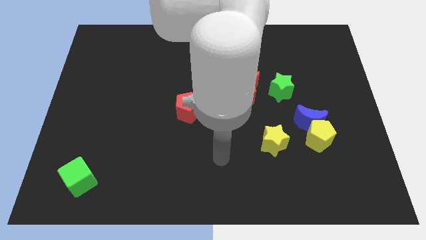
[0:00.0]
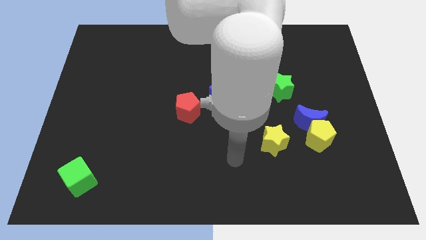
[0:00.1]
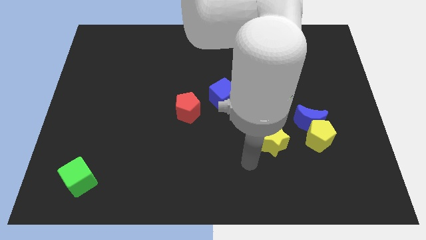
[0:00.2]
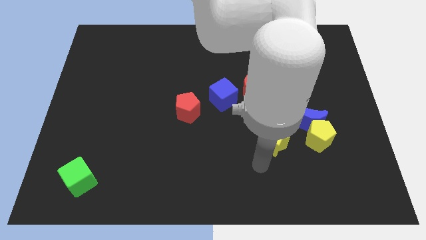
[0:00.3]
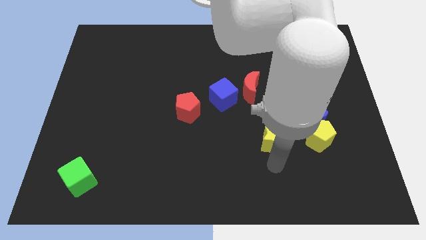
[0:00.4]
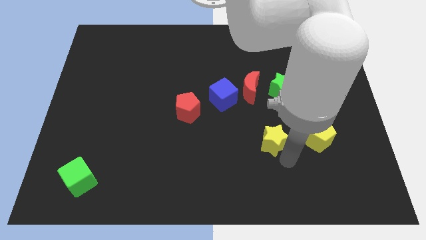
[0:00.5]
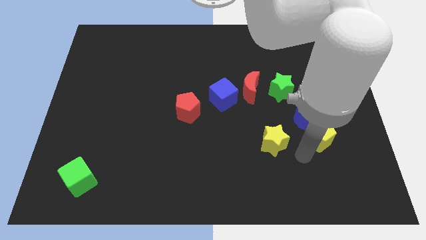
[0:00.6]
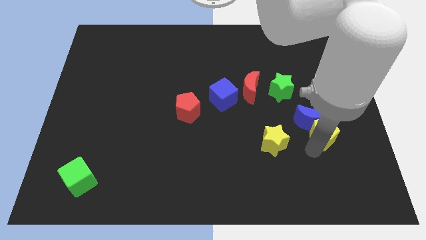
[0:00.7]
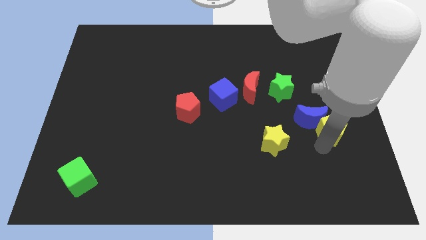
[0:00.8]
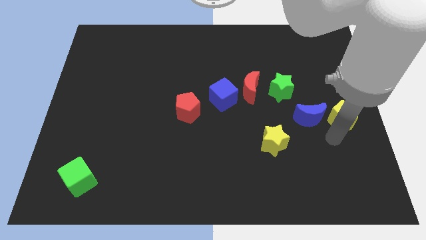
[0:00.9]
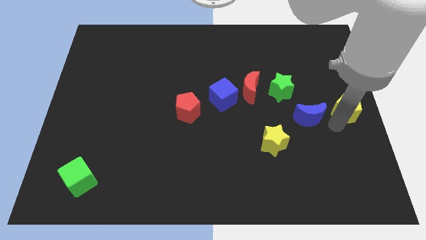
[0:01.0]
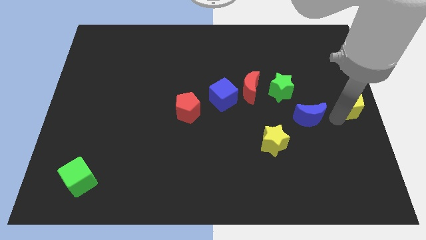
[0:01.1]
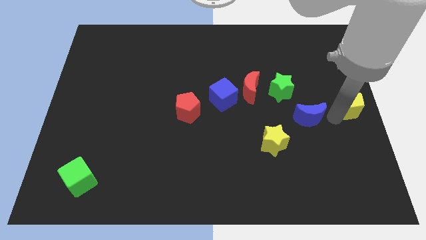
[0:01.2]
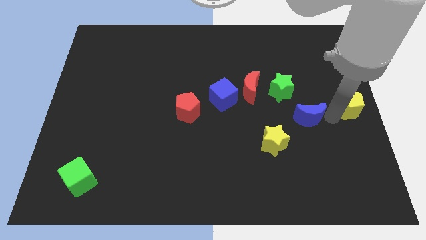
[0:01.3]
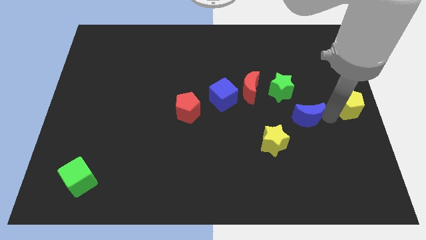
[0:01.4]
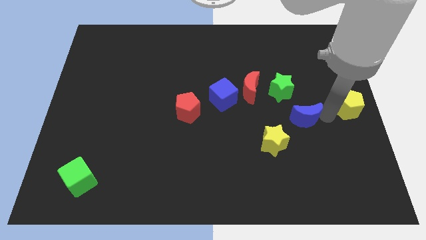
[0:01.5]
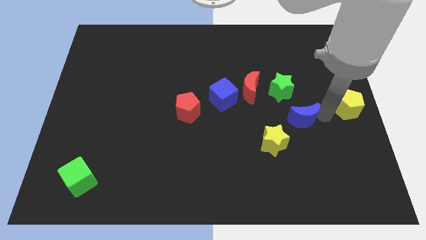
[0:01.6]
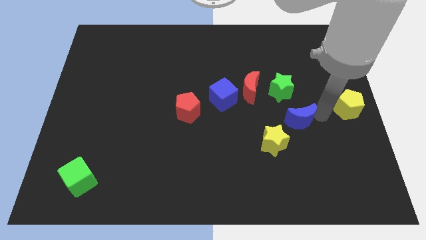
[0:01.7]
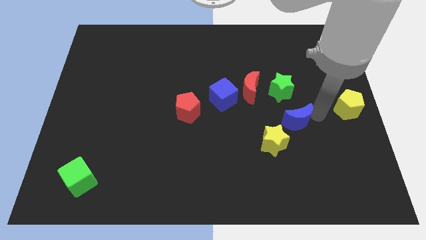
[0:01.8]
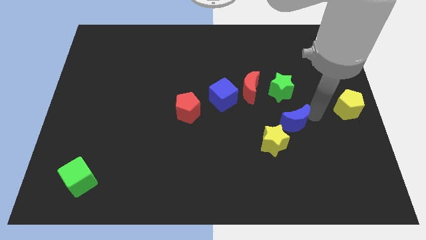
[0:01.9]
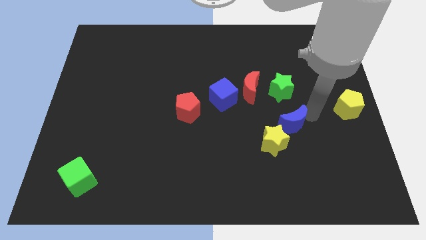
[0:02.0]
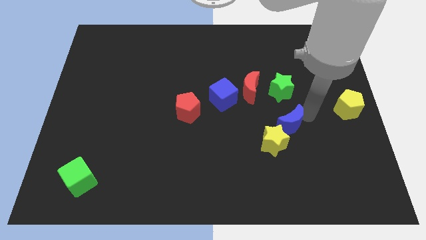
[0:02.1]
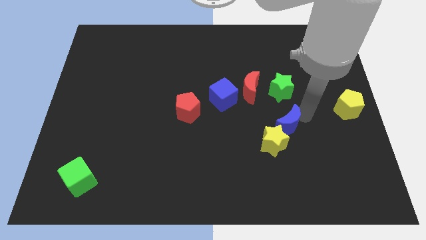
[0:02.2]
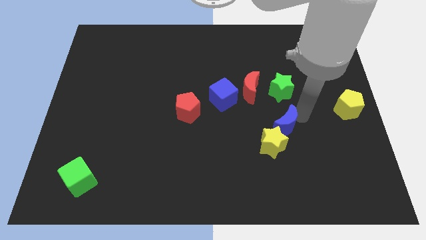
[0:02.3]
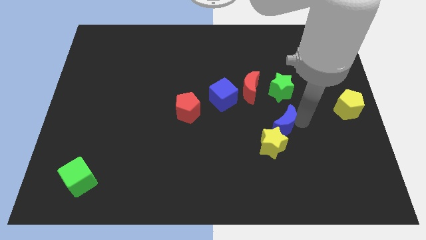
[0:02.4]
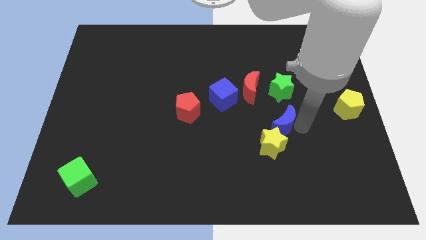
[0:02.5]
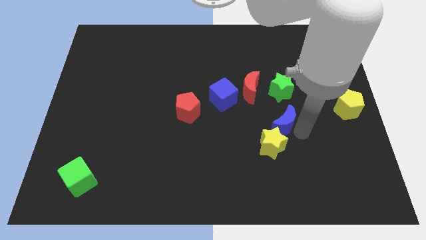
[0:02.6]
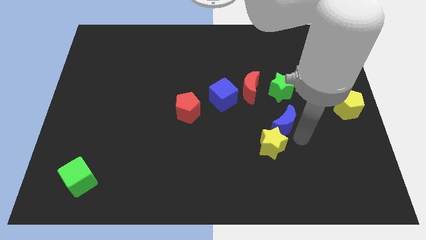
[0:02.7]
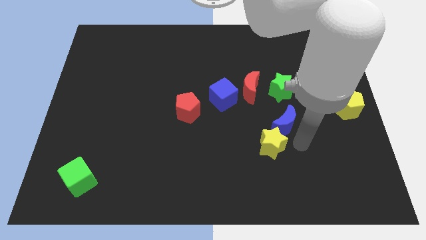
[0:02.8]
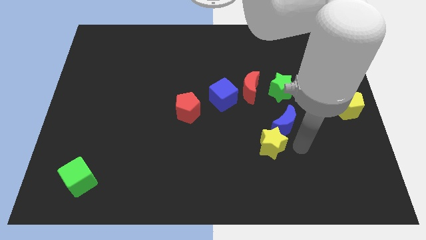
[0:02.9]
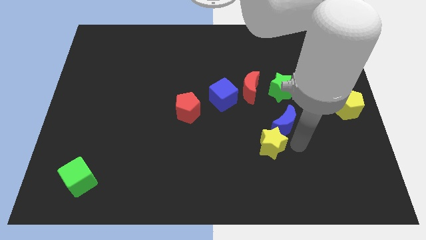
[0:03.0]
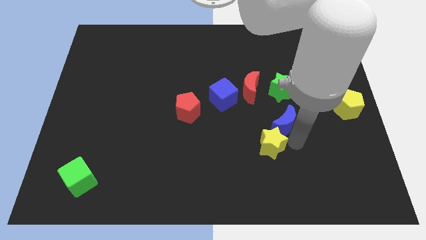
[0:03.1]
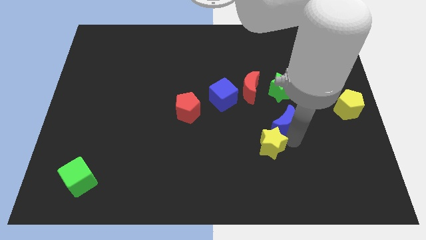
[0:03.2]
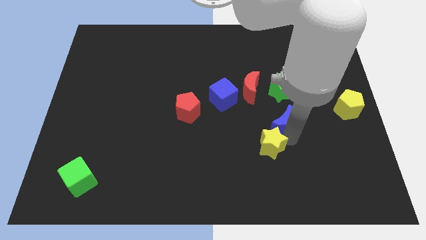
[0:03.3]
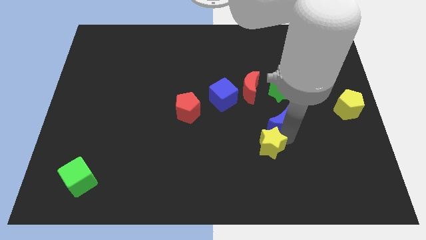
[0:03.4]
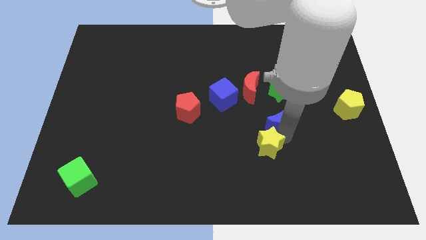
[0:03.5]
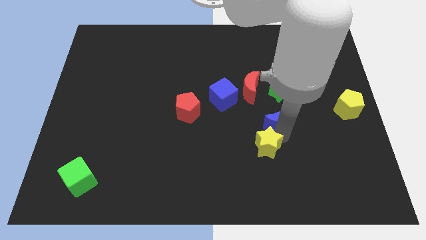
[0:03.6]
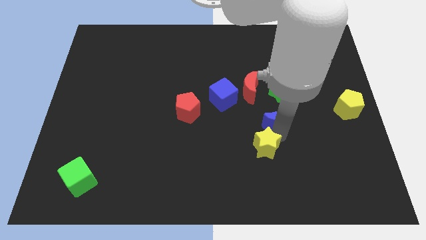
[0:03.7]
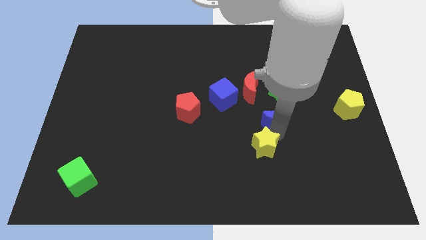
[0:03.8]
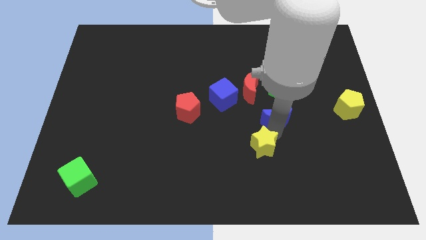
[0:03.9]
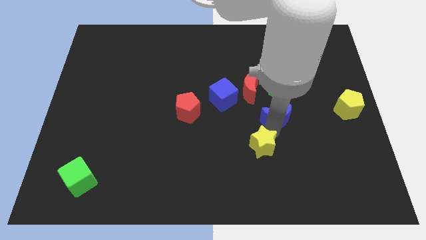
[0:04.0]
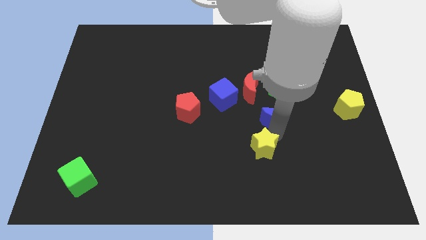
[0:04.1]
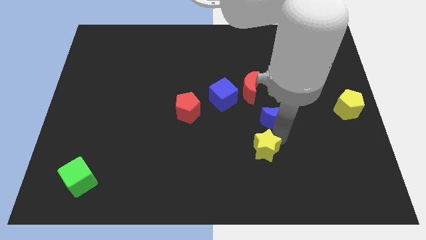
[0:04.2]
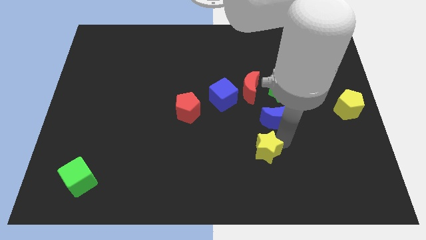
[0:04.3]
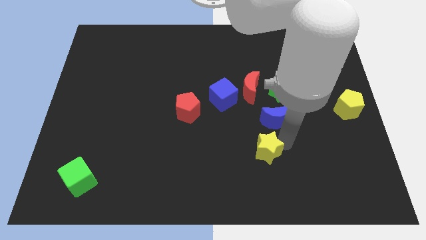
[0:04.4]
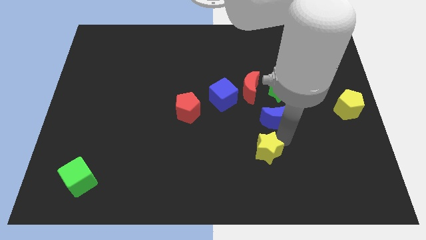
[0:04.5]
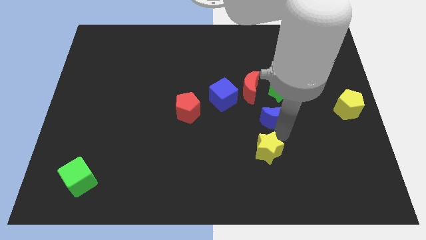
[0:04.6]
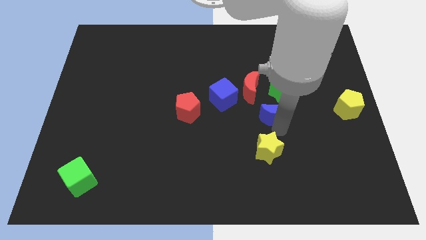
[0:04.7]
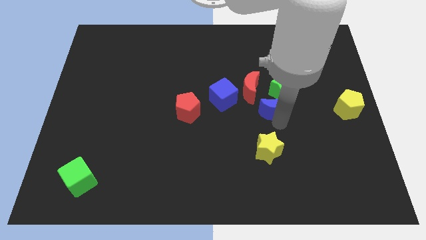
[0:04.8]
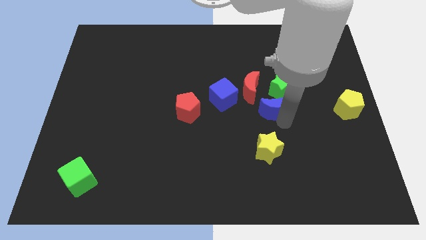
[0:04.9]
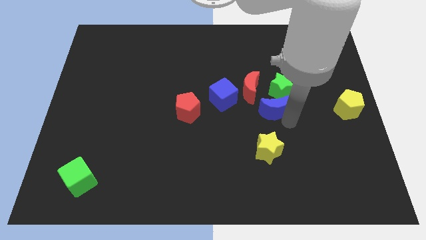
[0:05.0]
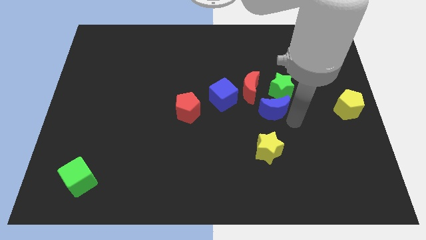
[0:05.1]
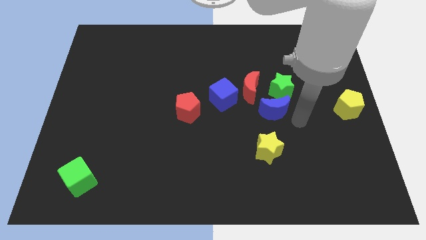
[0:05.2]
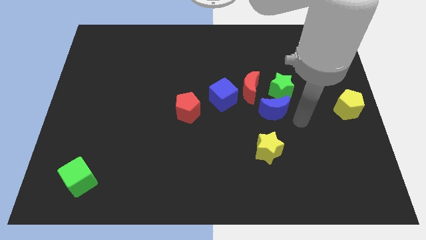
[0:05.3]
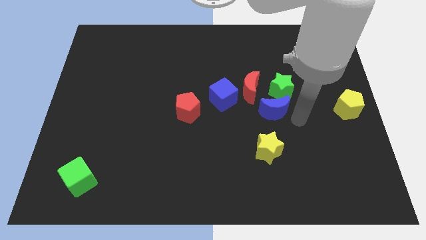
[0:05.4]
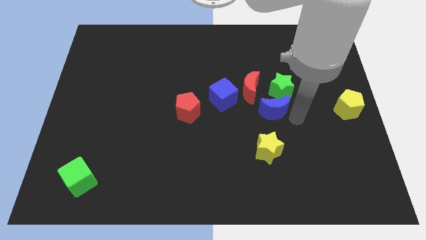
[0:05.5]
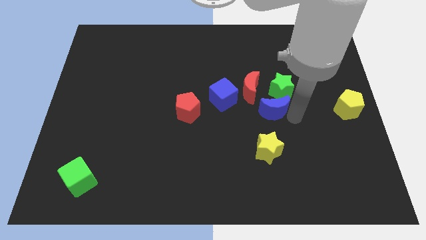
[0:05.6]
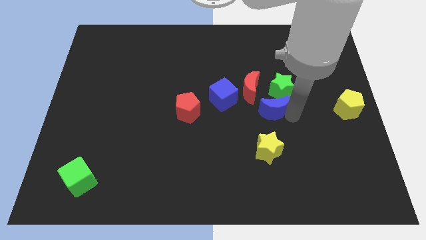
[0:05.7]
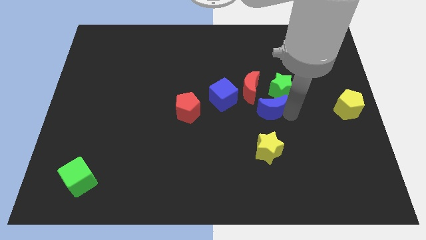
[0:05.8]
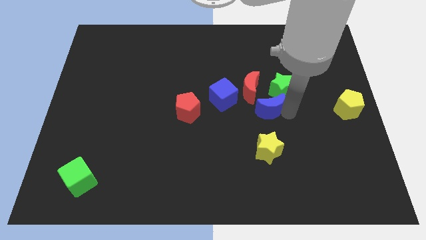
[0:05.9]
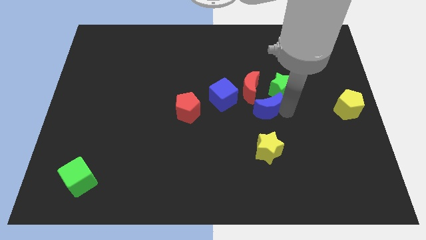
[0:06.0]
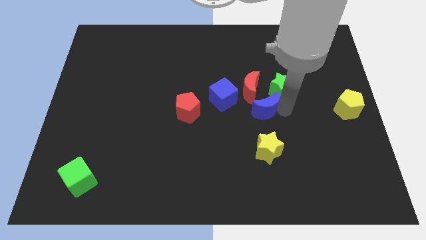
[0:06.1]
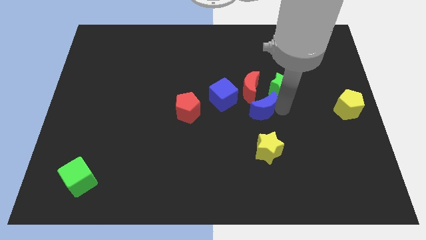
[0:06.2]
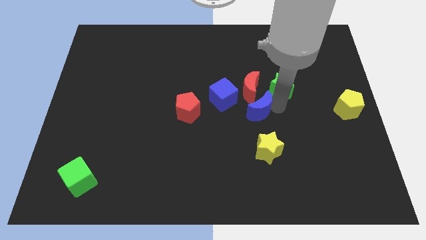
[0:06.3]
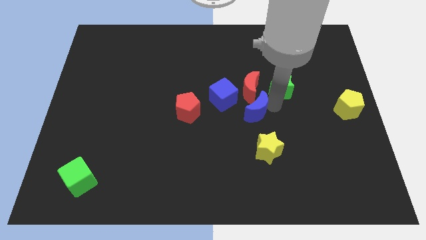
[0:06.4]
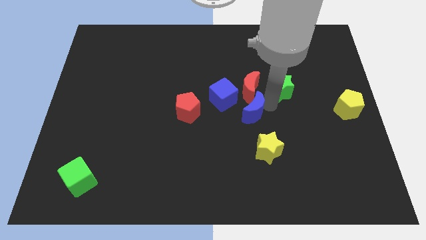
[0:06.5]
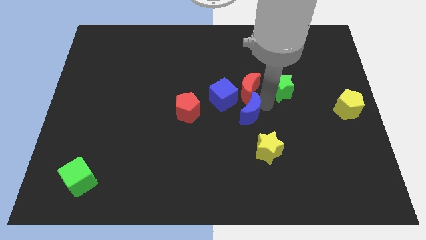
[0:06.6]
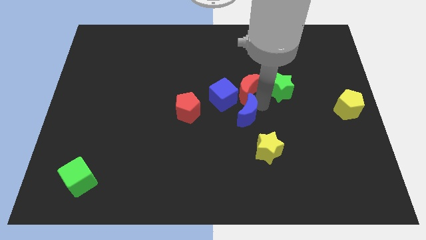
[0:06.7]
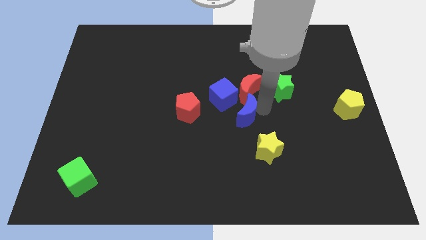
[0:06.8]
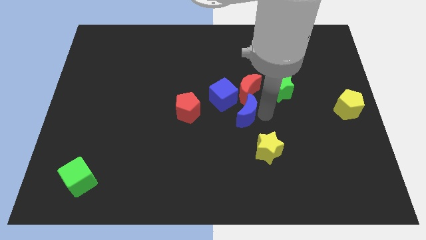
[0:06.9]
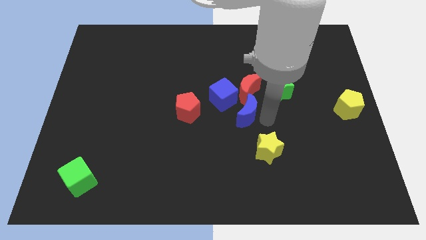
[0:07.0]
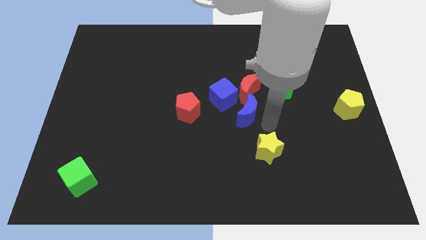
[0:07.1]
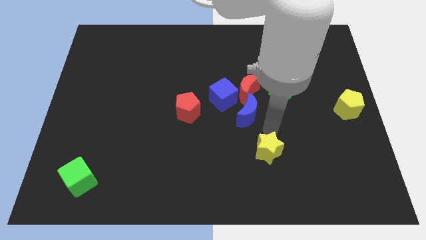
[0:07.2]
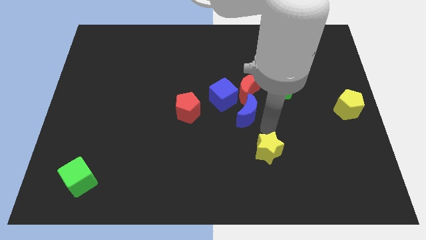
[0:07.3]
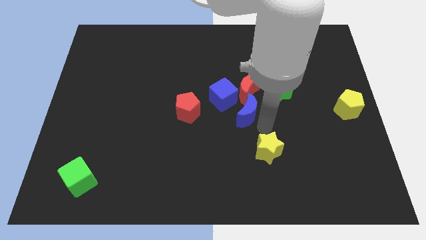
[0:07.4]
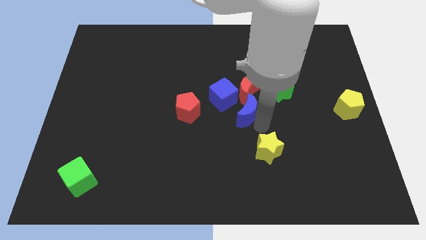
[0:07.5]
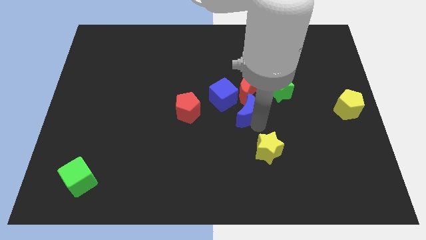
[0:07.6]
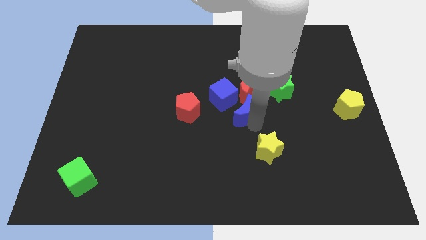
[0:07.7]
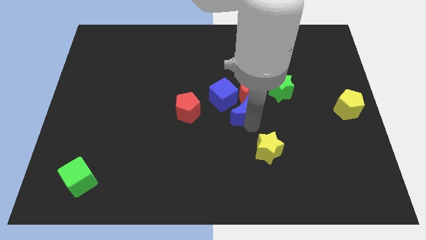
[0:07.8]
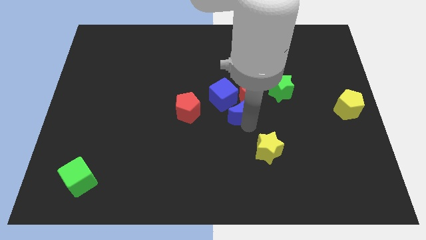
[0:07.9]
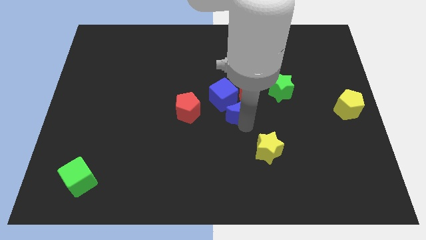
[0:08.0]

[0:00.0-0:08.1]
move the blue moon to the blue cube
